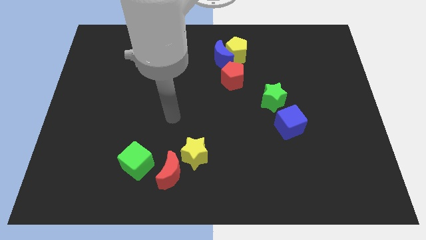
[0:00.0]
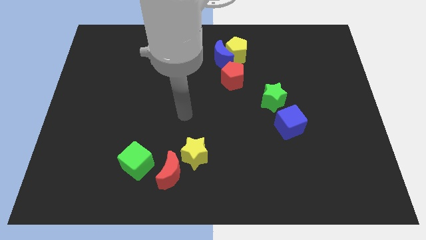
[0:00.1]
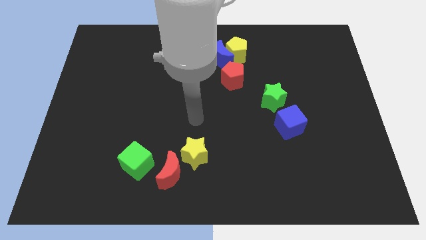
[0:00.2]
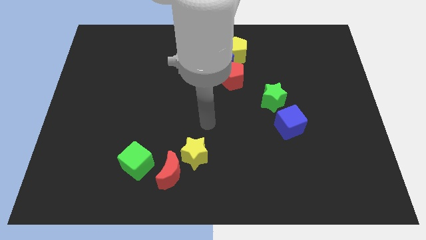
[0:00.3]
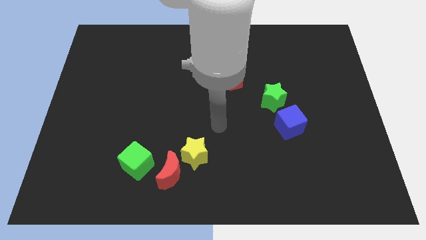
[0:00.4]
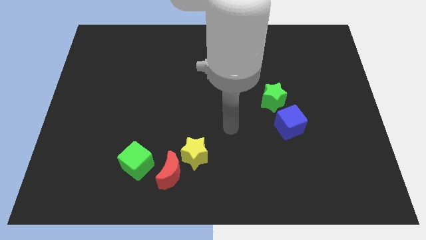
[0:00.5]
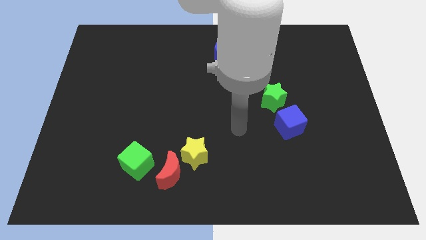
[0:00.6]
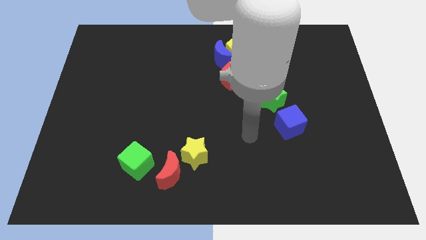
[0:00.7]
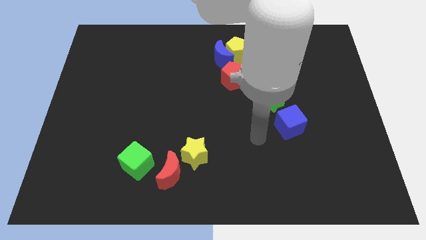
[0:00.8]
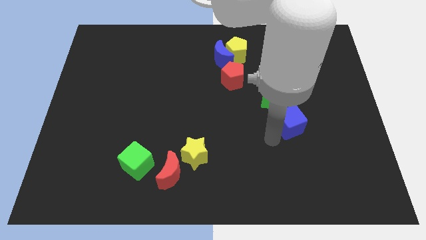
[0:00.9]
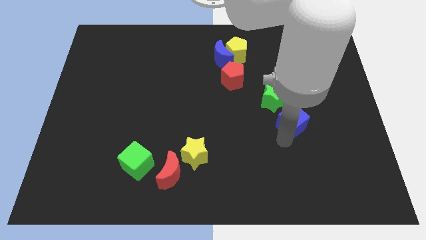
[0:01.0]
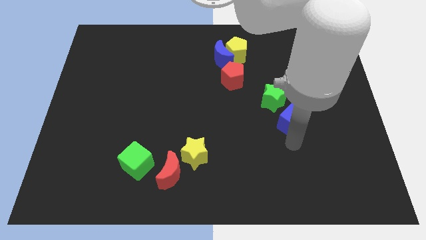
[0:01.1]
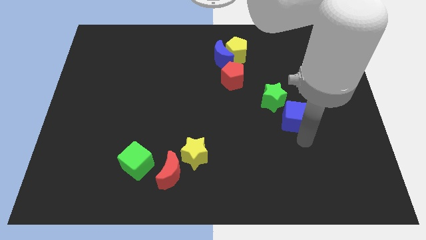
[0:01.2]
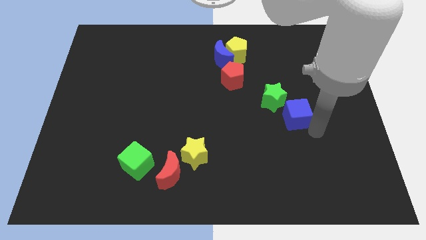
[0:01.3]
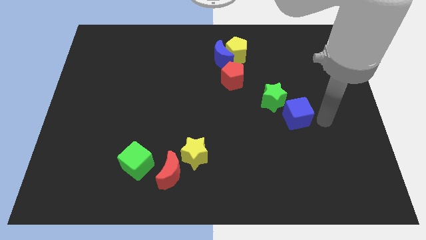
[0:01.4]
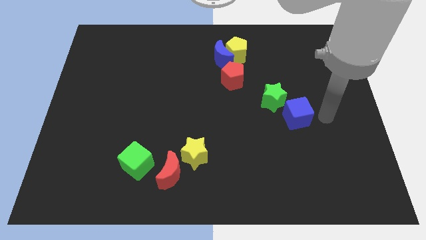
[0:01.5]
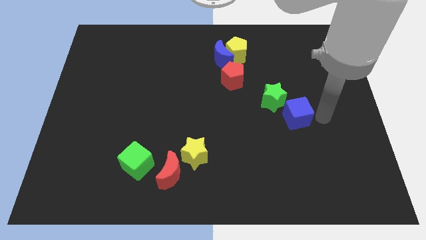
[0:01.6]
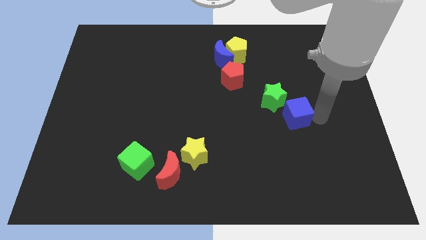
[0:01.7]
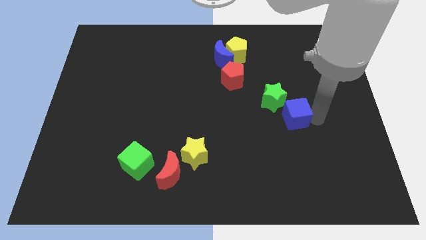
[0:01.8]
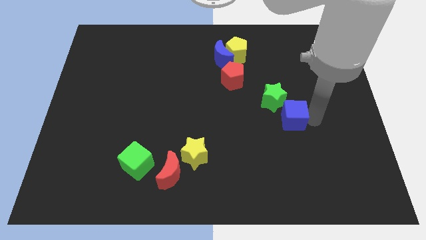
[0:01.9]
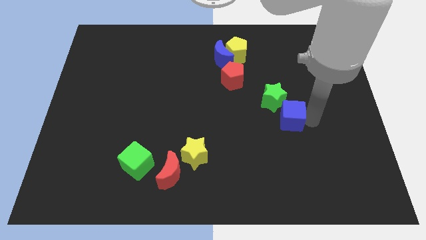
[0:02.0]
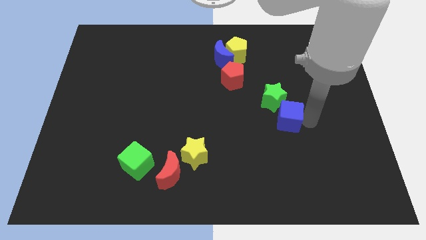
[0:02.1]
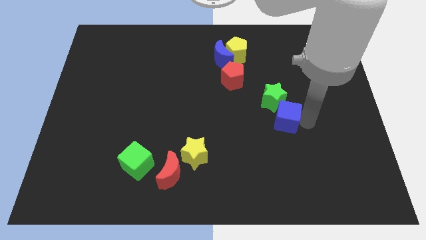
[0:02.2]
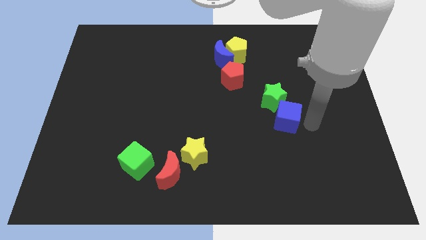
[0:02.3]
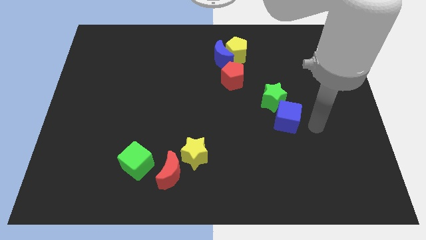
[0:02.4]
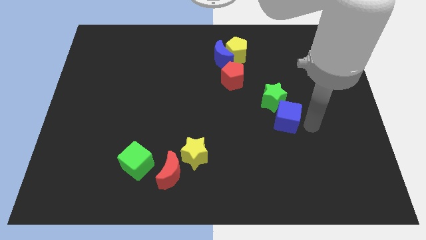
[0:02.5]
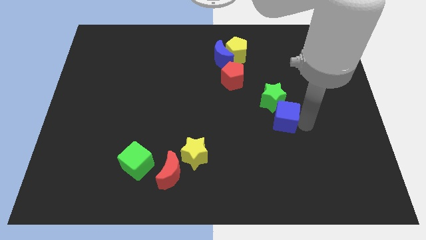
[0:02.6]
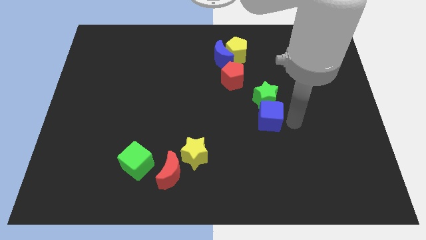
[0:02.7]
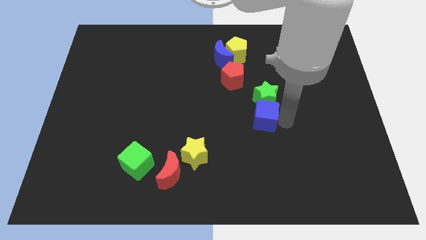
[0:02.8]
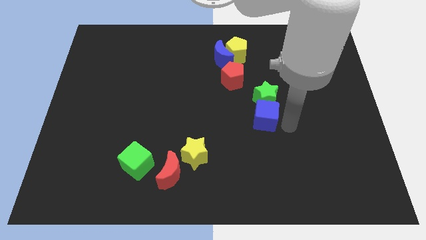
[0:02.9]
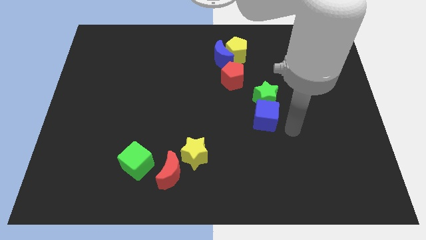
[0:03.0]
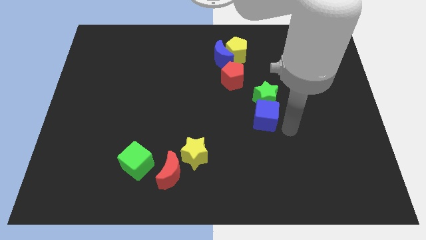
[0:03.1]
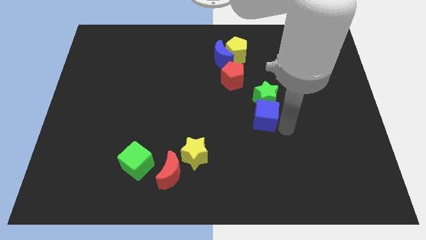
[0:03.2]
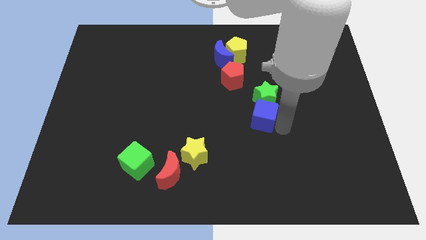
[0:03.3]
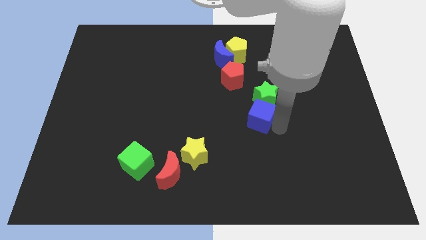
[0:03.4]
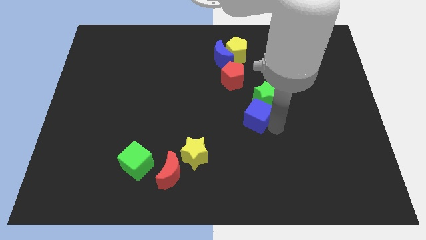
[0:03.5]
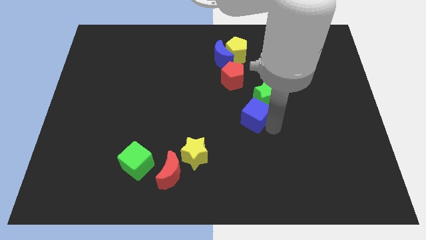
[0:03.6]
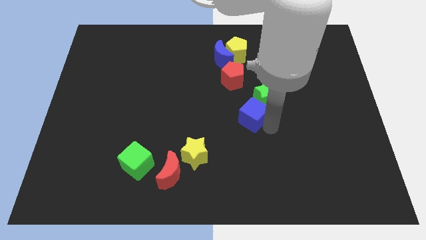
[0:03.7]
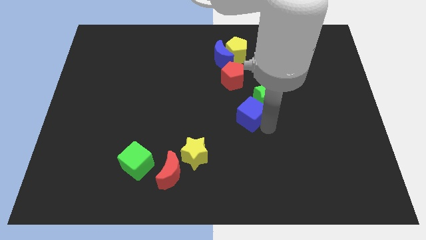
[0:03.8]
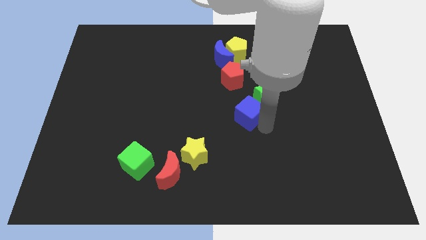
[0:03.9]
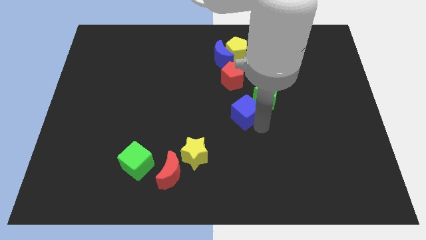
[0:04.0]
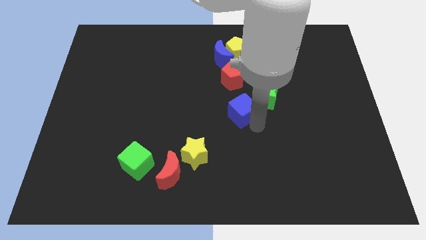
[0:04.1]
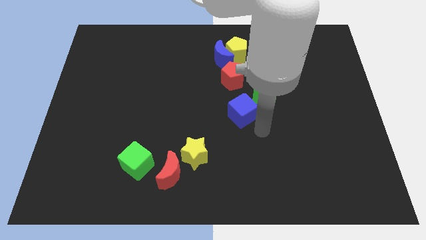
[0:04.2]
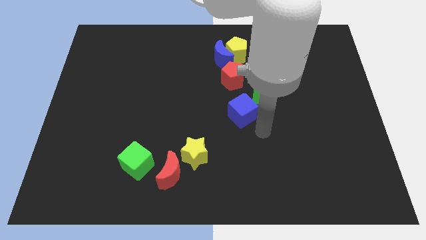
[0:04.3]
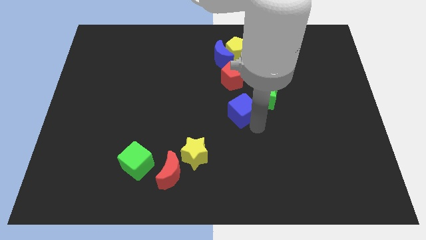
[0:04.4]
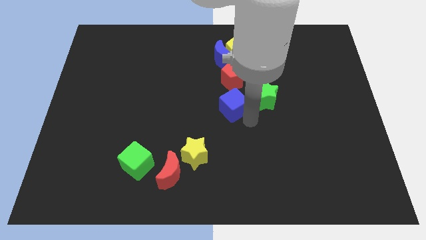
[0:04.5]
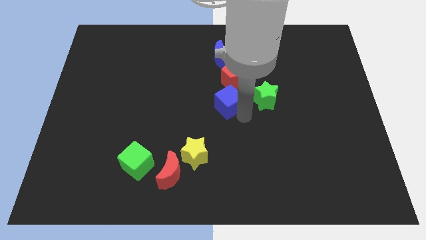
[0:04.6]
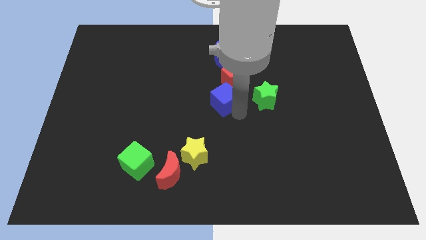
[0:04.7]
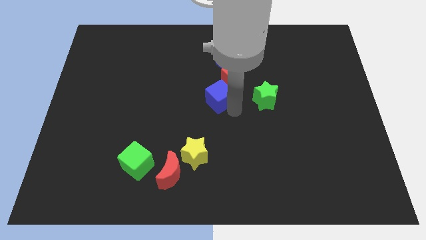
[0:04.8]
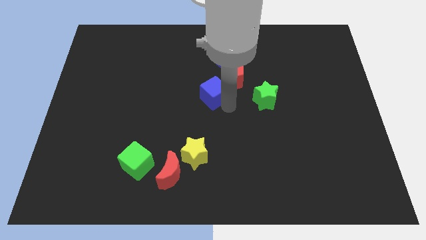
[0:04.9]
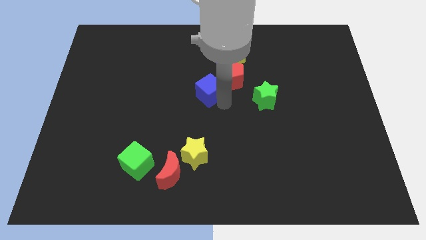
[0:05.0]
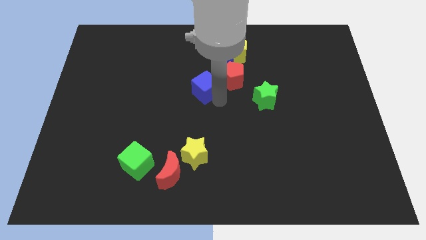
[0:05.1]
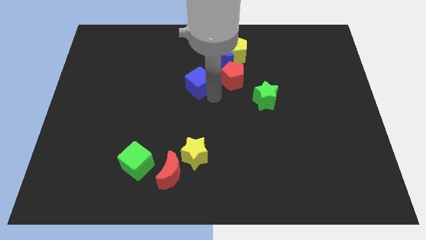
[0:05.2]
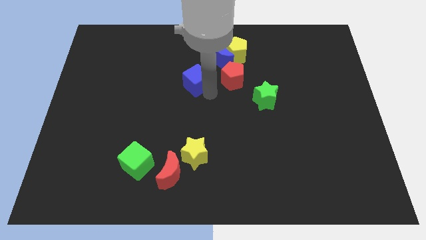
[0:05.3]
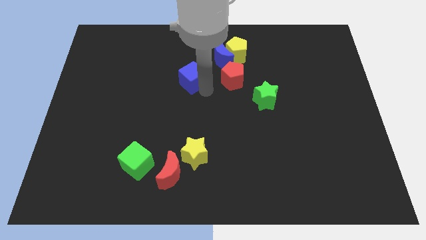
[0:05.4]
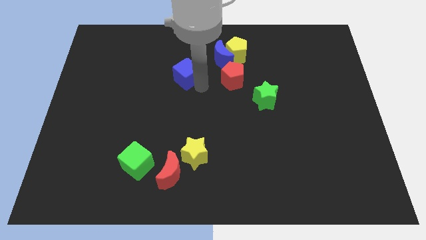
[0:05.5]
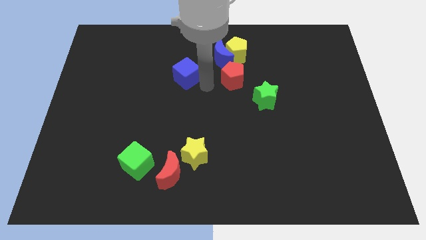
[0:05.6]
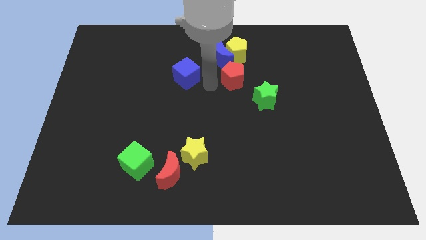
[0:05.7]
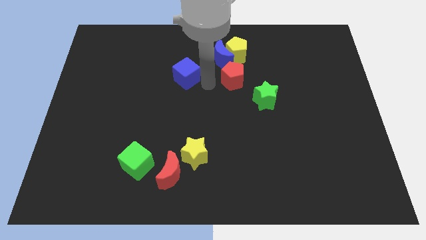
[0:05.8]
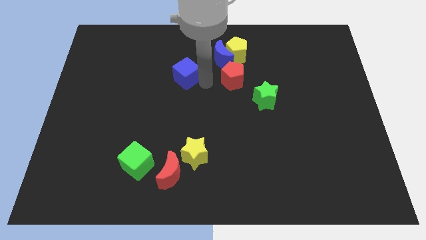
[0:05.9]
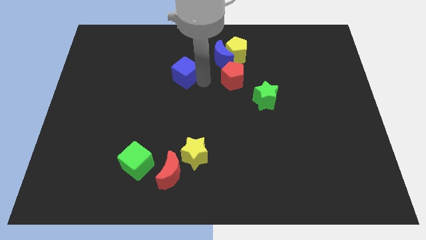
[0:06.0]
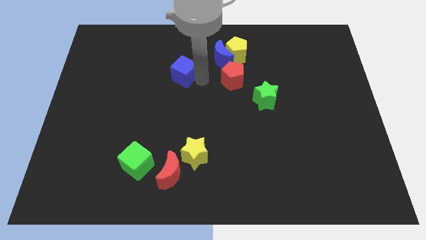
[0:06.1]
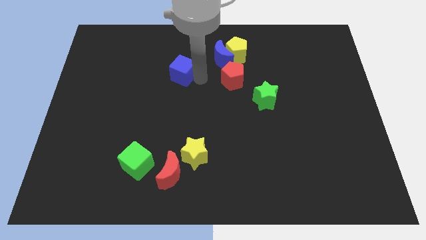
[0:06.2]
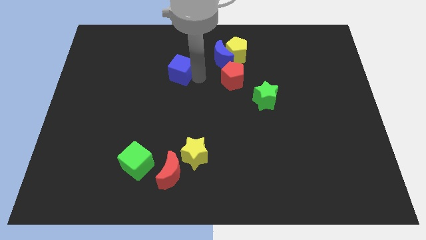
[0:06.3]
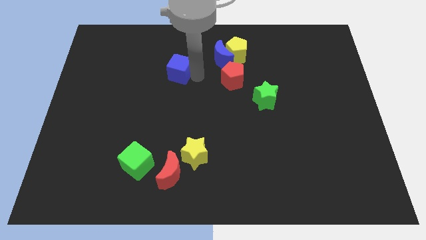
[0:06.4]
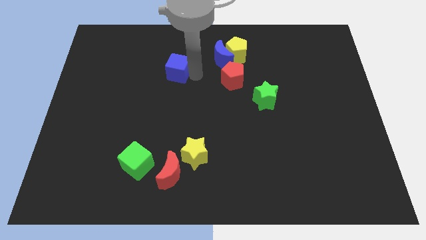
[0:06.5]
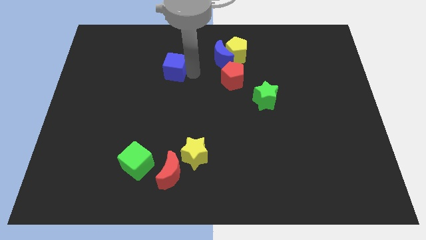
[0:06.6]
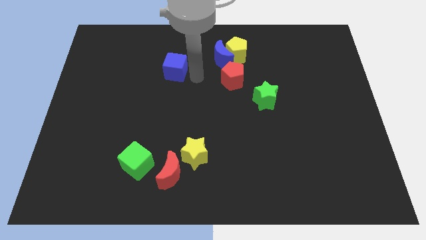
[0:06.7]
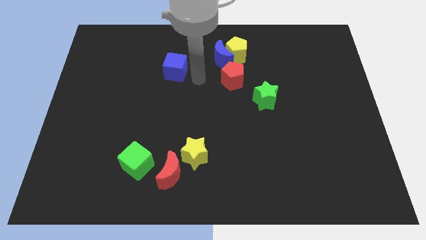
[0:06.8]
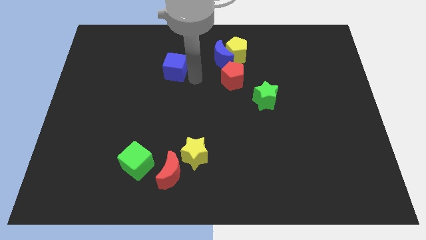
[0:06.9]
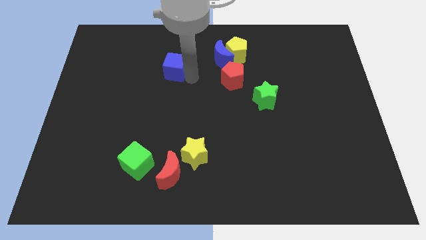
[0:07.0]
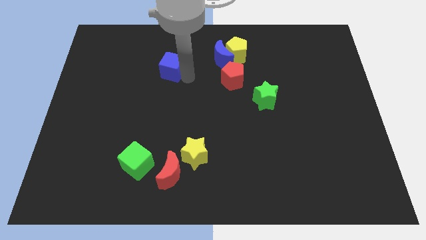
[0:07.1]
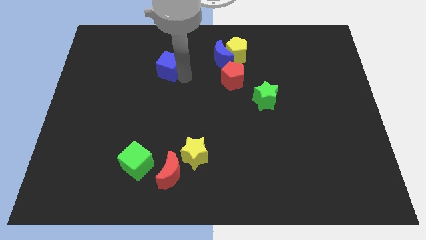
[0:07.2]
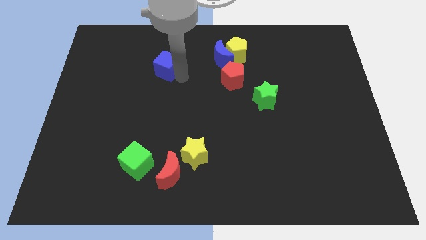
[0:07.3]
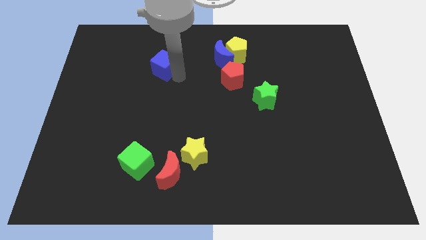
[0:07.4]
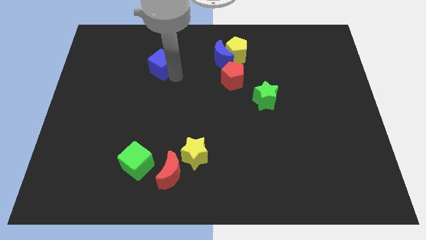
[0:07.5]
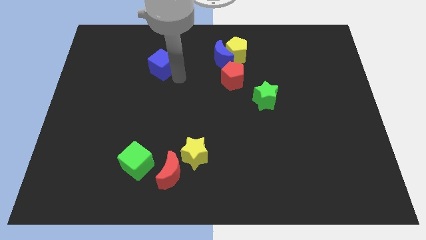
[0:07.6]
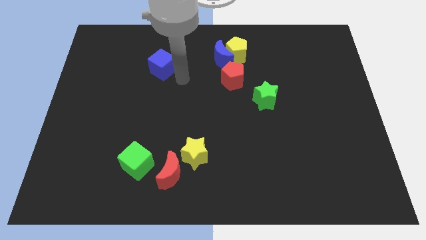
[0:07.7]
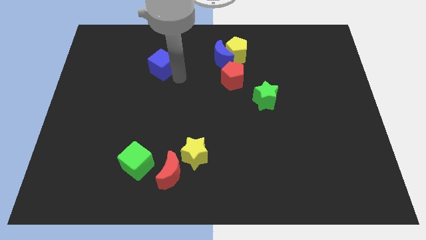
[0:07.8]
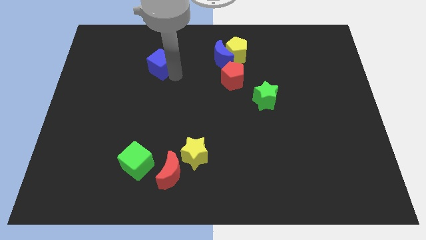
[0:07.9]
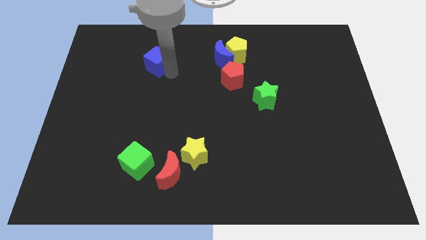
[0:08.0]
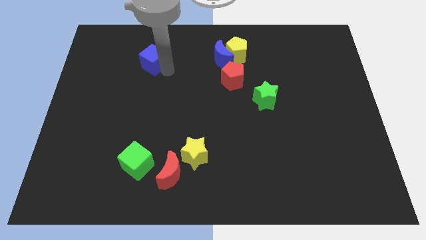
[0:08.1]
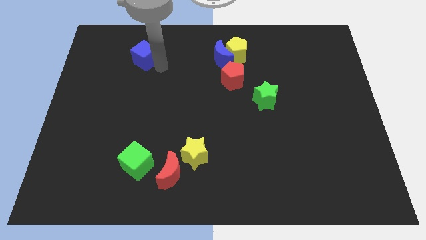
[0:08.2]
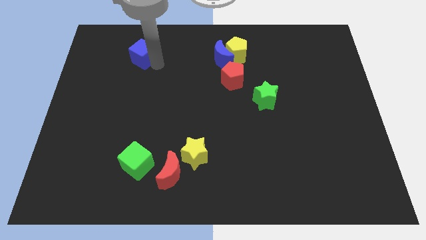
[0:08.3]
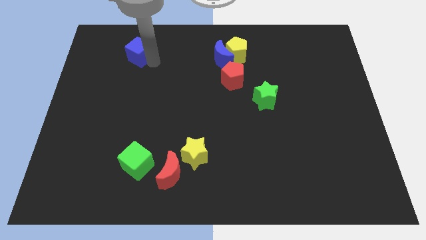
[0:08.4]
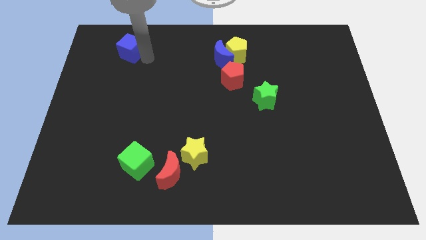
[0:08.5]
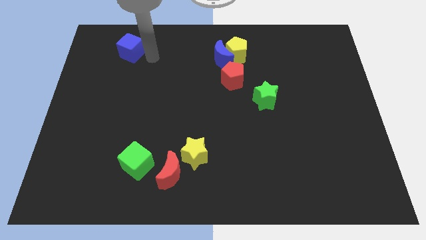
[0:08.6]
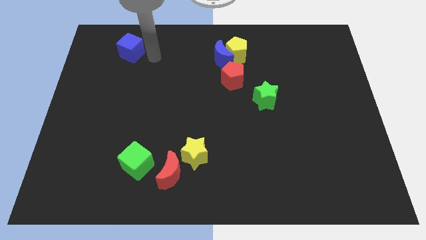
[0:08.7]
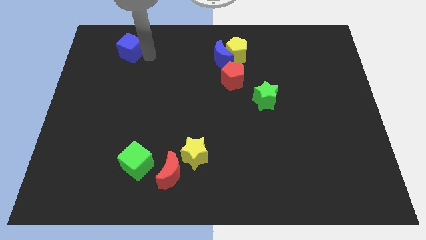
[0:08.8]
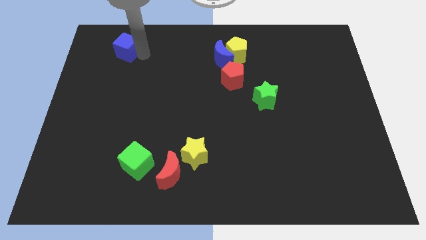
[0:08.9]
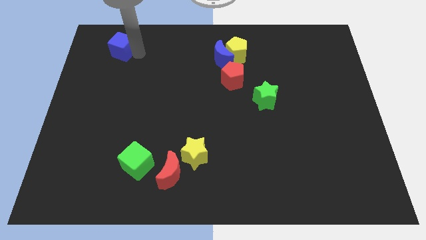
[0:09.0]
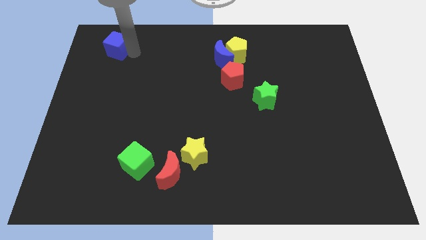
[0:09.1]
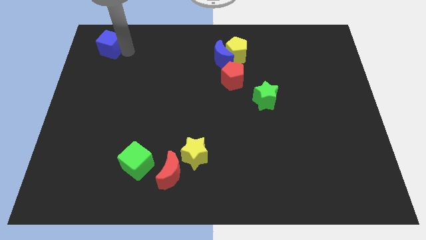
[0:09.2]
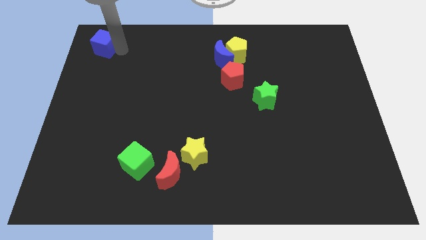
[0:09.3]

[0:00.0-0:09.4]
move the blue cube to the top left corner
